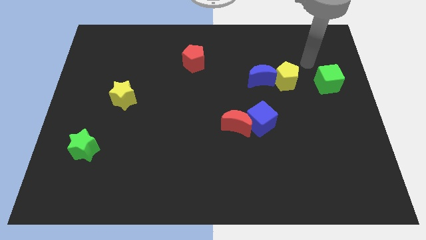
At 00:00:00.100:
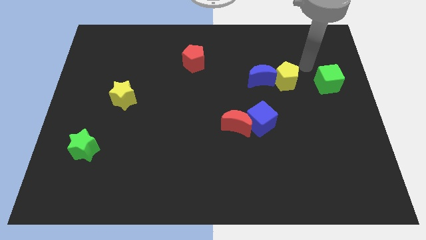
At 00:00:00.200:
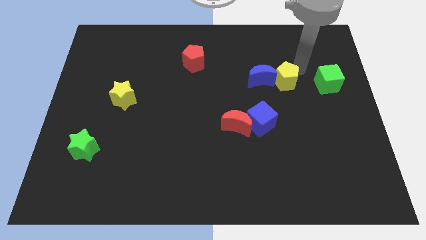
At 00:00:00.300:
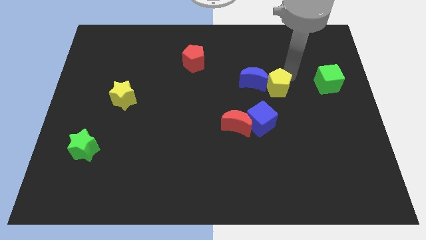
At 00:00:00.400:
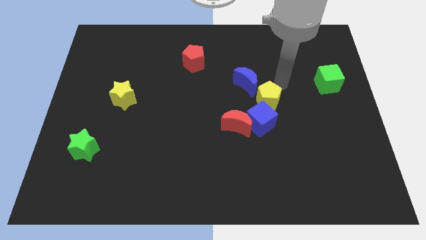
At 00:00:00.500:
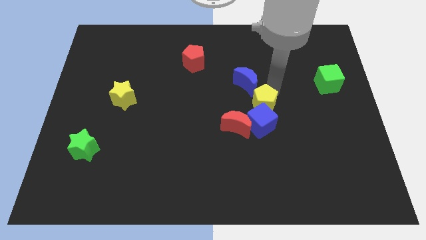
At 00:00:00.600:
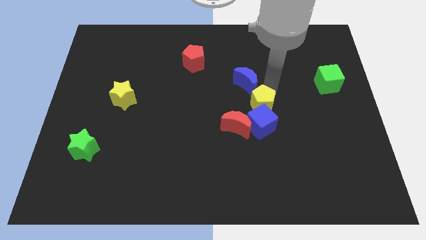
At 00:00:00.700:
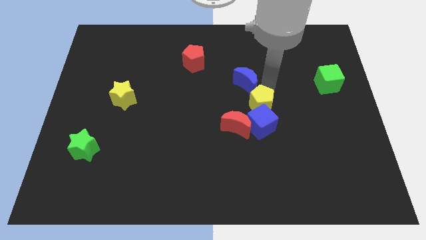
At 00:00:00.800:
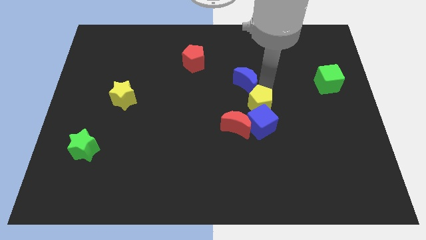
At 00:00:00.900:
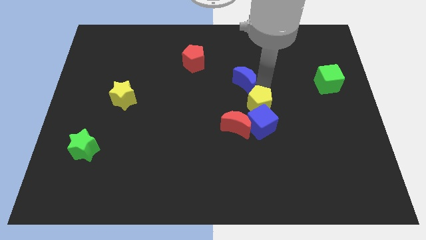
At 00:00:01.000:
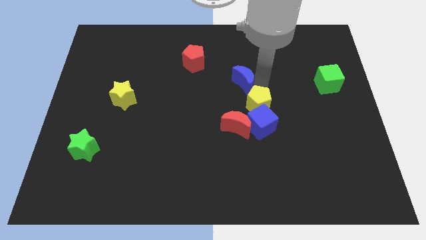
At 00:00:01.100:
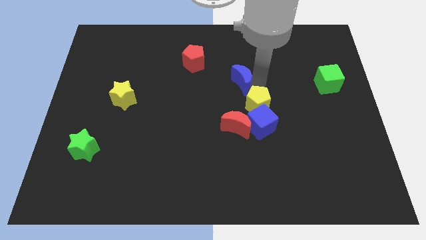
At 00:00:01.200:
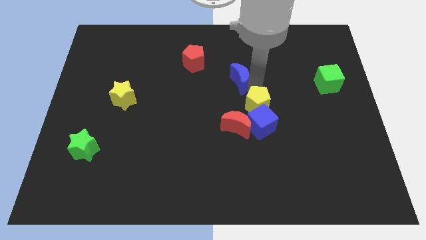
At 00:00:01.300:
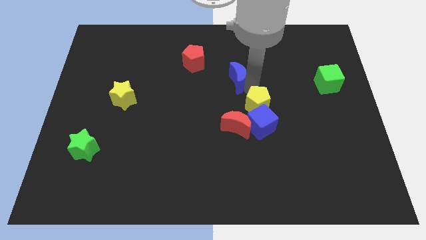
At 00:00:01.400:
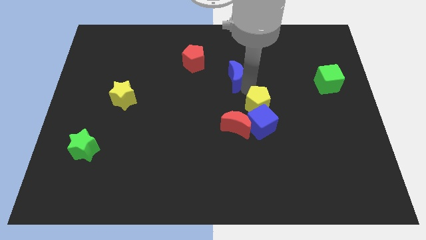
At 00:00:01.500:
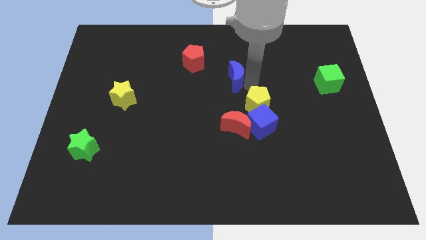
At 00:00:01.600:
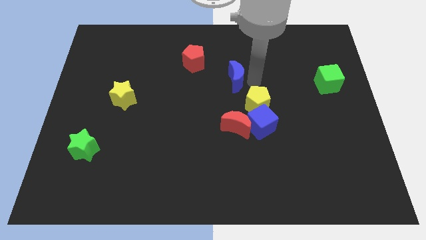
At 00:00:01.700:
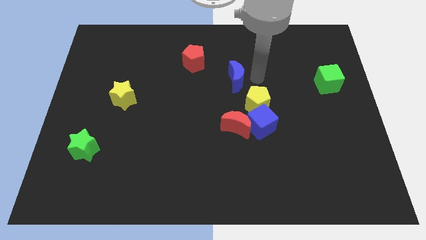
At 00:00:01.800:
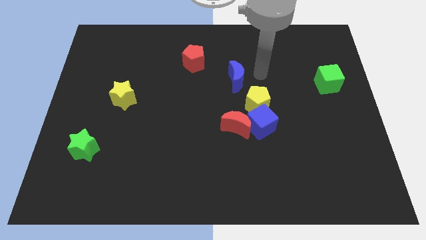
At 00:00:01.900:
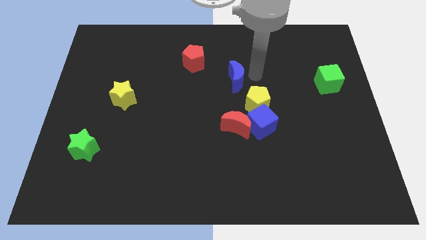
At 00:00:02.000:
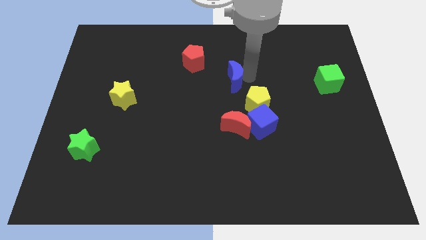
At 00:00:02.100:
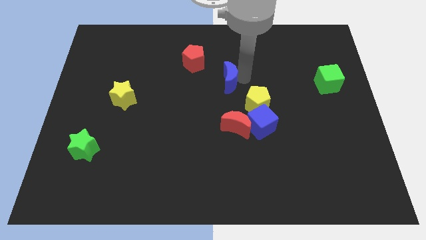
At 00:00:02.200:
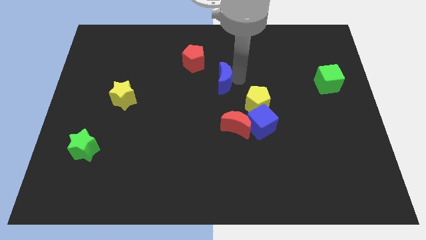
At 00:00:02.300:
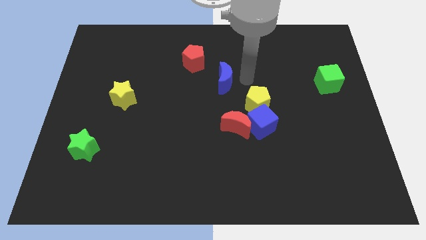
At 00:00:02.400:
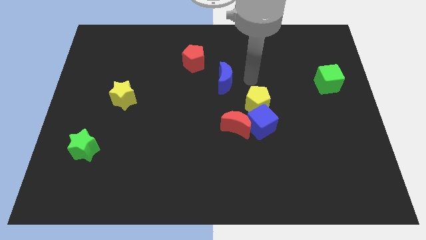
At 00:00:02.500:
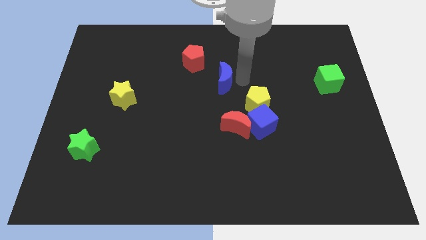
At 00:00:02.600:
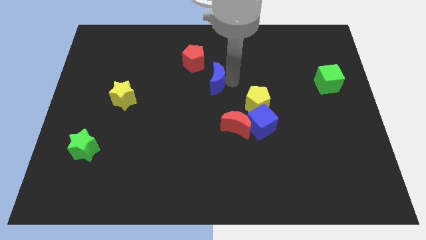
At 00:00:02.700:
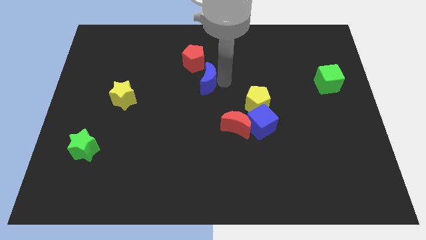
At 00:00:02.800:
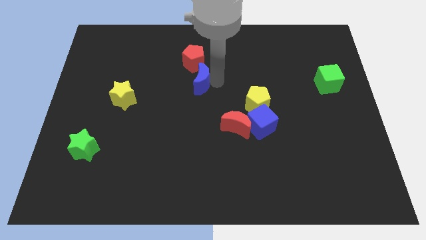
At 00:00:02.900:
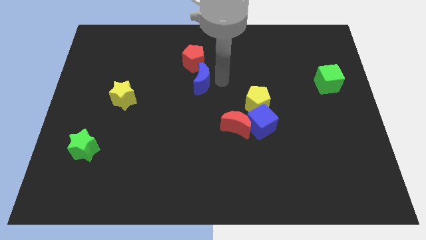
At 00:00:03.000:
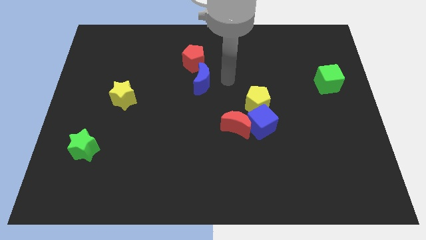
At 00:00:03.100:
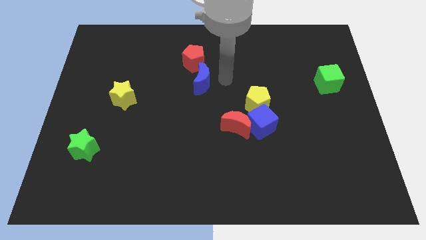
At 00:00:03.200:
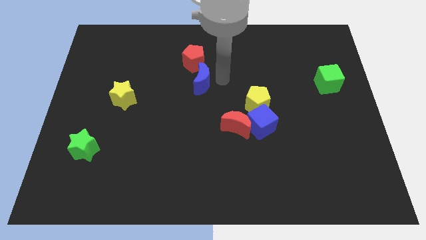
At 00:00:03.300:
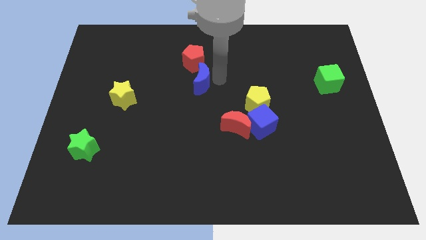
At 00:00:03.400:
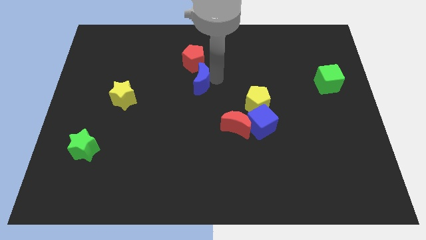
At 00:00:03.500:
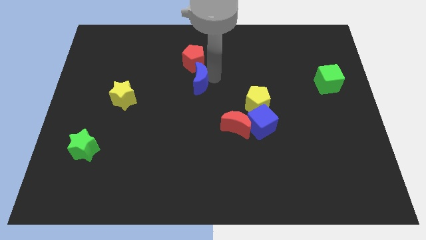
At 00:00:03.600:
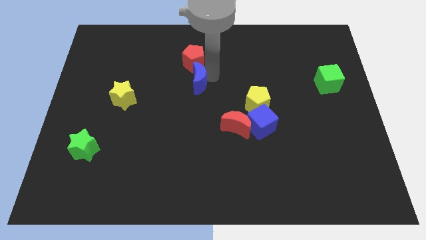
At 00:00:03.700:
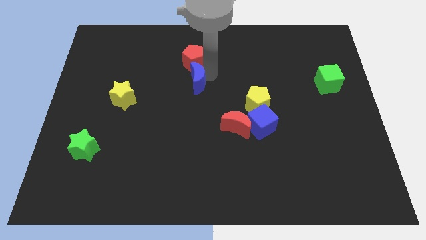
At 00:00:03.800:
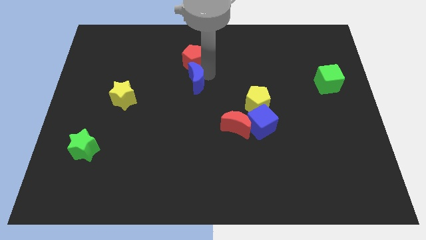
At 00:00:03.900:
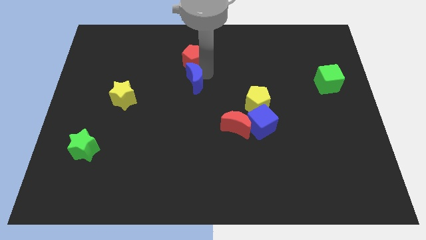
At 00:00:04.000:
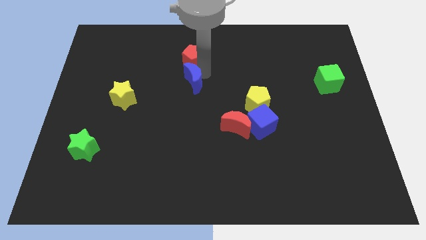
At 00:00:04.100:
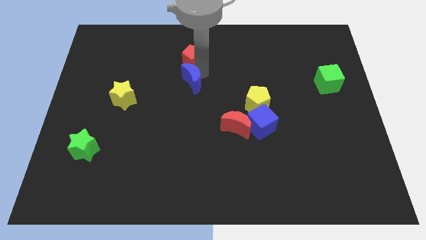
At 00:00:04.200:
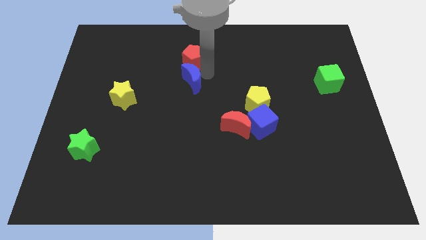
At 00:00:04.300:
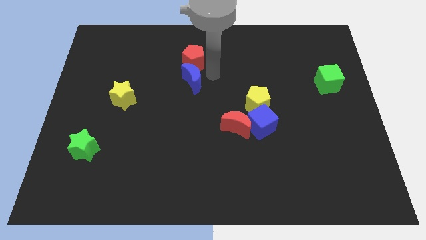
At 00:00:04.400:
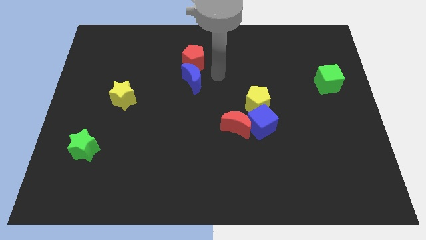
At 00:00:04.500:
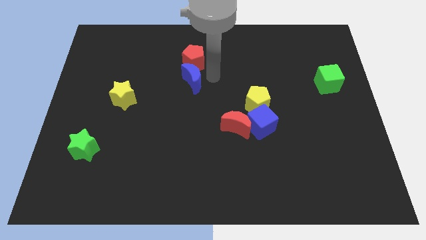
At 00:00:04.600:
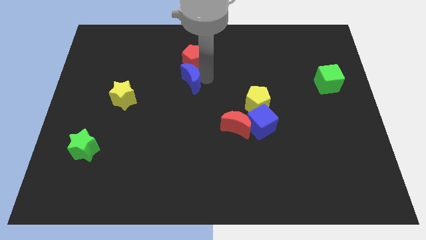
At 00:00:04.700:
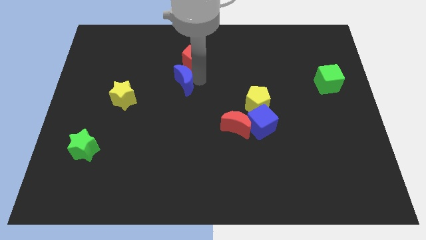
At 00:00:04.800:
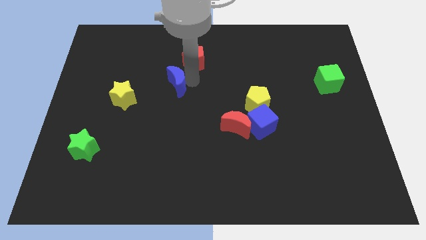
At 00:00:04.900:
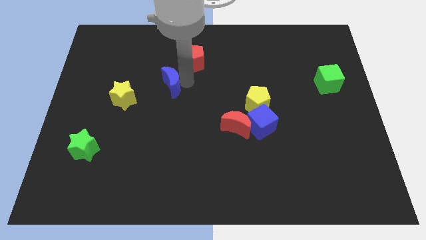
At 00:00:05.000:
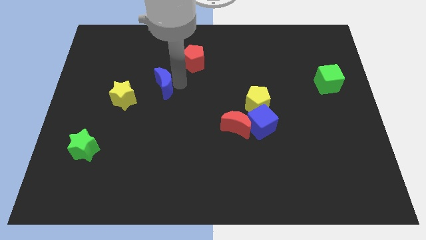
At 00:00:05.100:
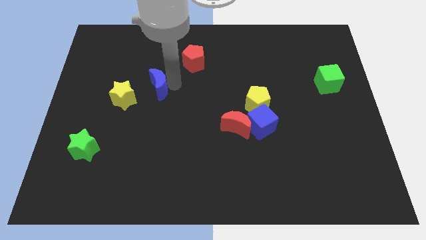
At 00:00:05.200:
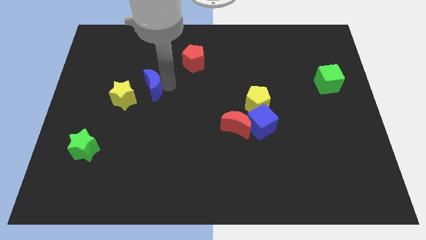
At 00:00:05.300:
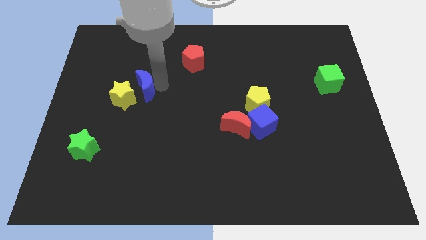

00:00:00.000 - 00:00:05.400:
put the blue moon towards the yellow star

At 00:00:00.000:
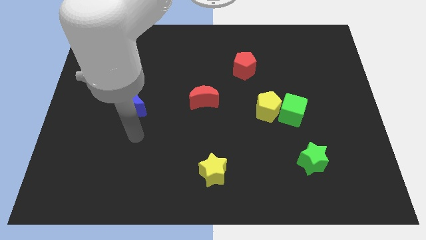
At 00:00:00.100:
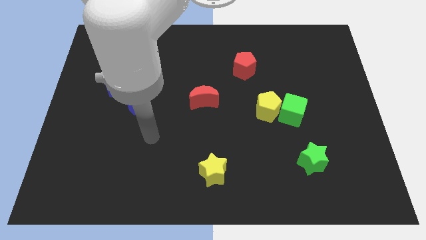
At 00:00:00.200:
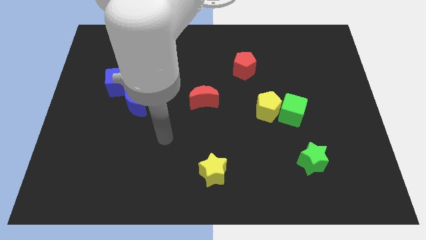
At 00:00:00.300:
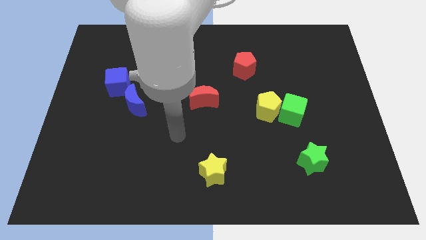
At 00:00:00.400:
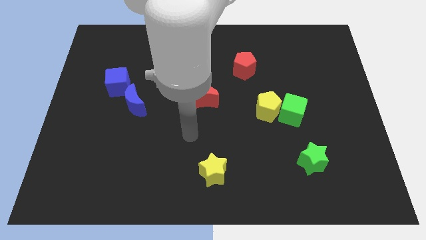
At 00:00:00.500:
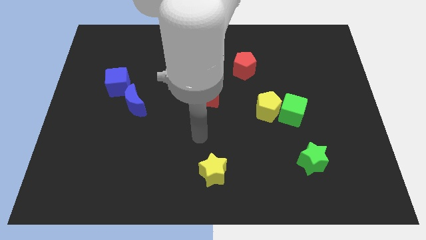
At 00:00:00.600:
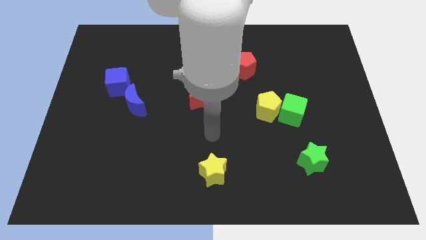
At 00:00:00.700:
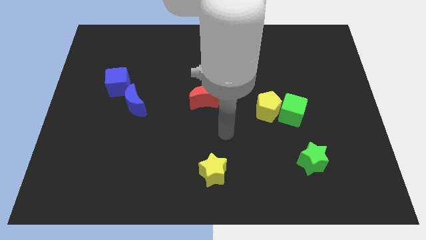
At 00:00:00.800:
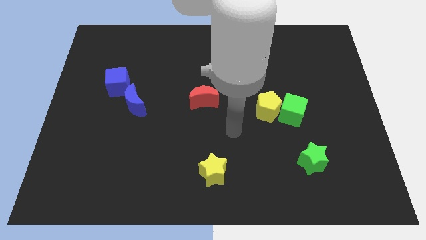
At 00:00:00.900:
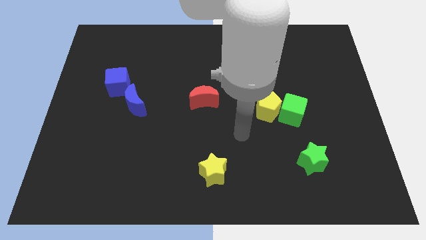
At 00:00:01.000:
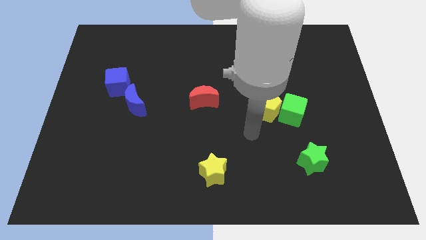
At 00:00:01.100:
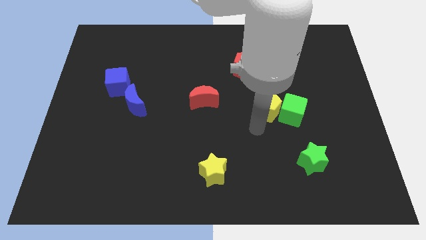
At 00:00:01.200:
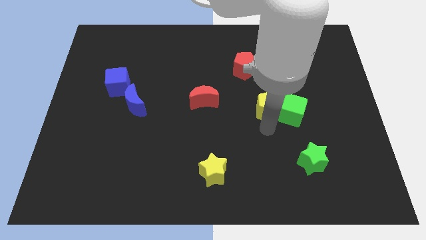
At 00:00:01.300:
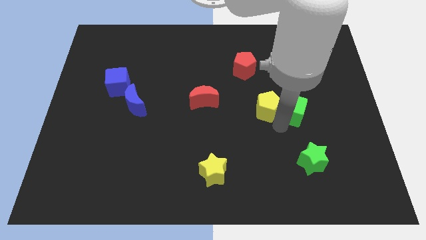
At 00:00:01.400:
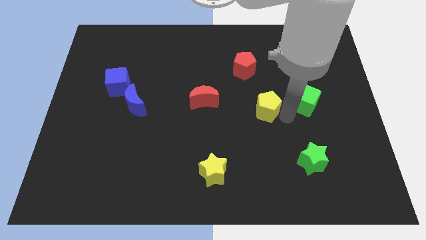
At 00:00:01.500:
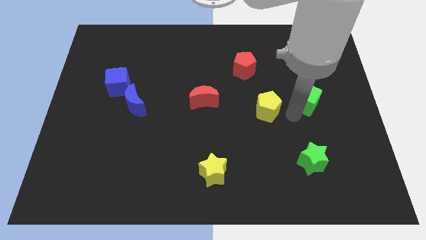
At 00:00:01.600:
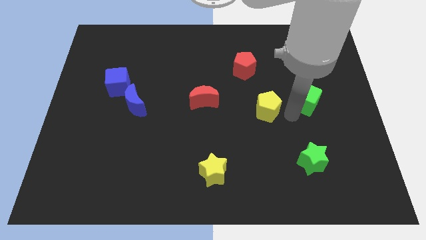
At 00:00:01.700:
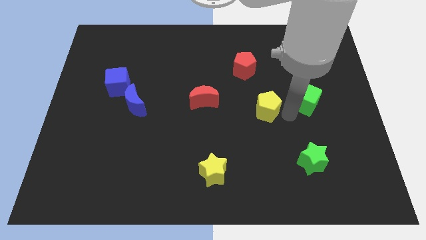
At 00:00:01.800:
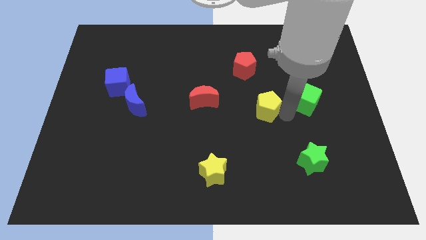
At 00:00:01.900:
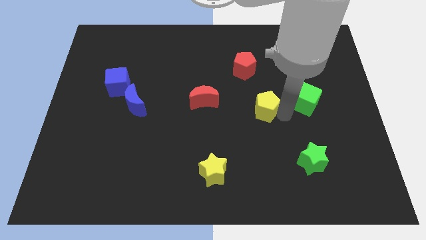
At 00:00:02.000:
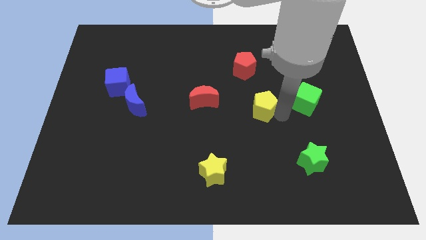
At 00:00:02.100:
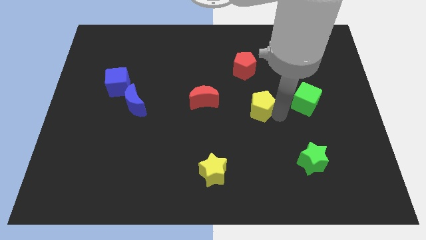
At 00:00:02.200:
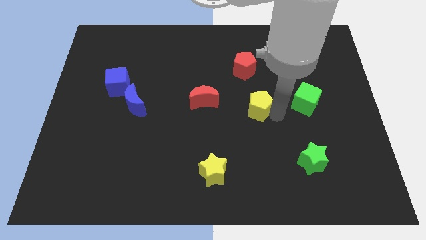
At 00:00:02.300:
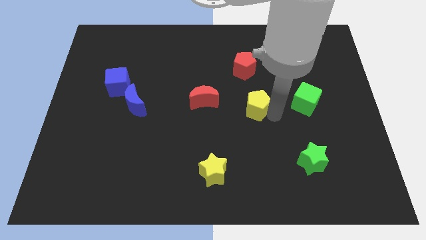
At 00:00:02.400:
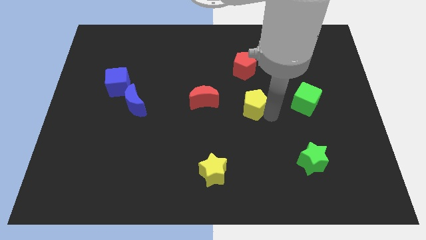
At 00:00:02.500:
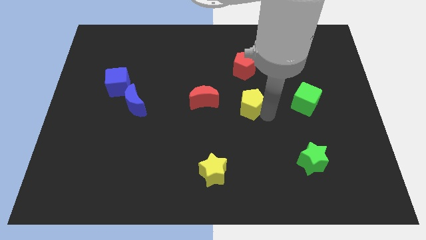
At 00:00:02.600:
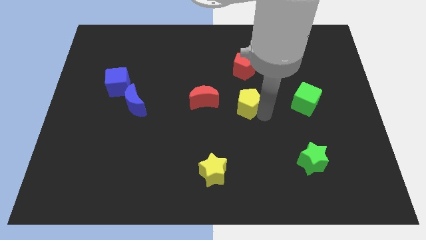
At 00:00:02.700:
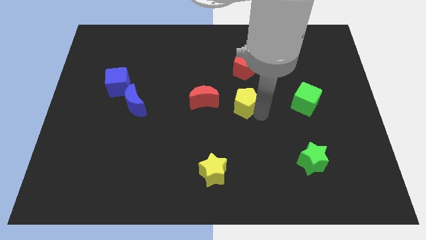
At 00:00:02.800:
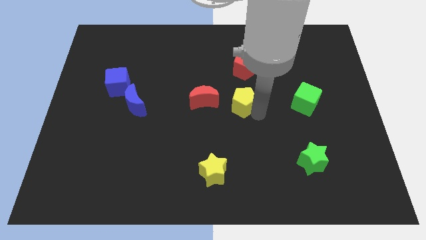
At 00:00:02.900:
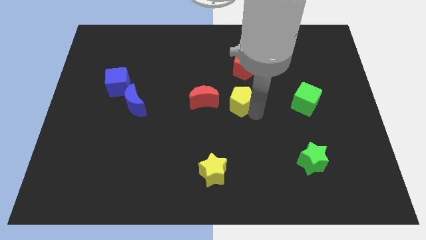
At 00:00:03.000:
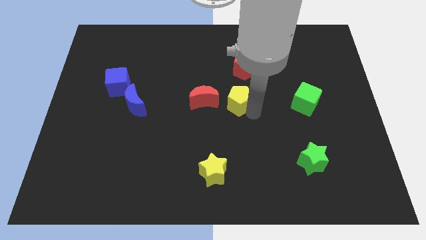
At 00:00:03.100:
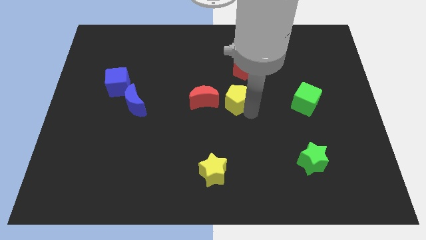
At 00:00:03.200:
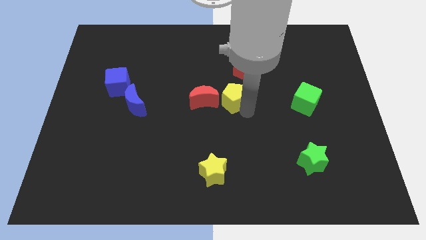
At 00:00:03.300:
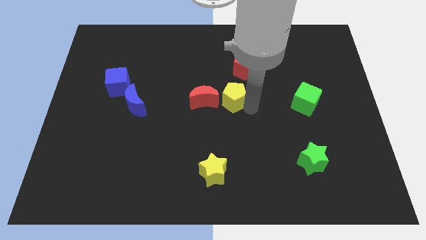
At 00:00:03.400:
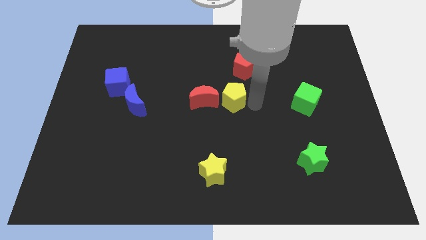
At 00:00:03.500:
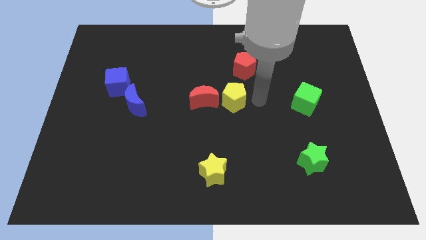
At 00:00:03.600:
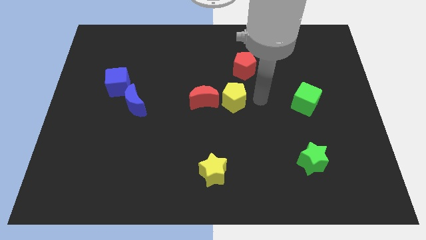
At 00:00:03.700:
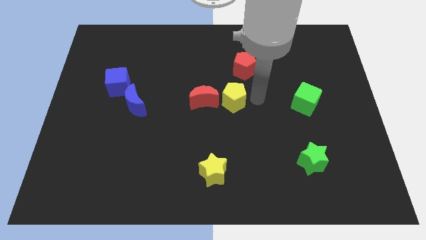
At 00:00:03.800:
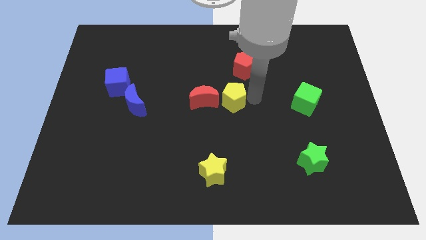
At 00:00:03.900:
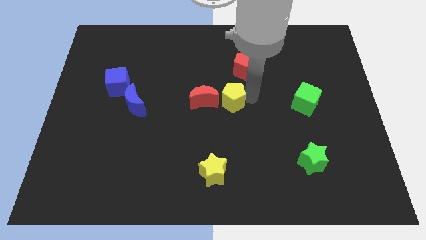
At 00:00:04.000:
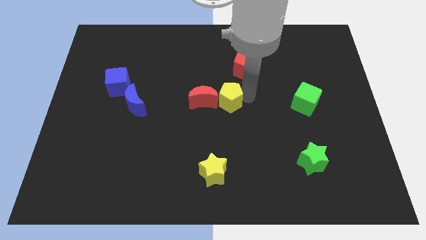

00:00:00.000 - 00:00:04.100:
put the yellow pentagon close to the red moon
